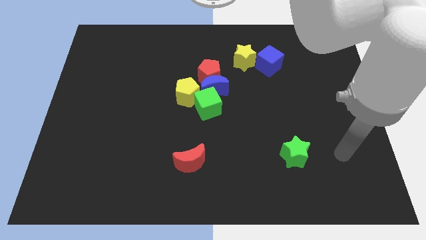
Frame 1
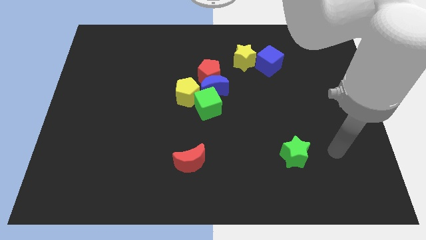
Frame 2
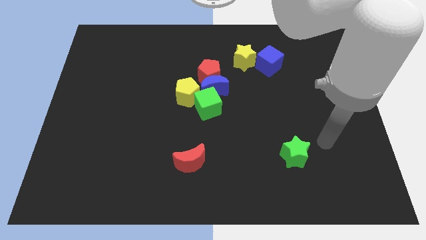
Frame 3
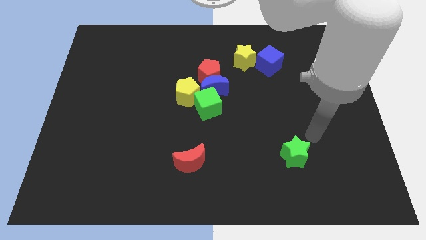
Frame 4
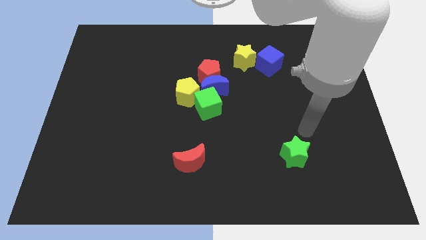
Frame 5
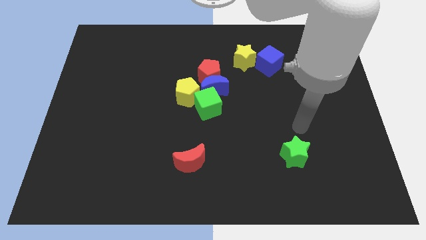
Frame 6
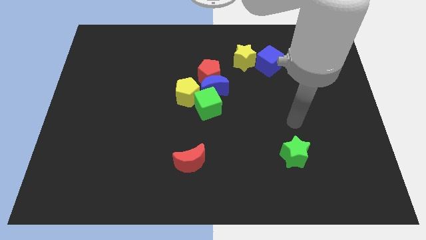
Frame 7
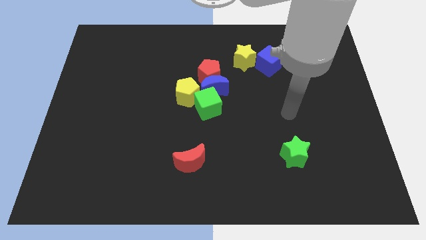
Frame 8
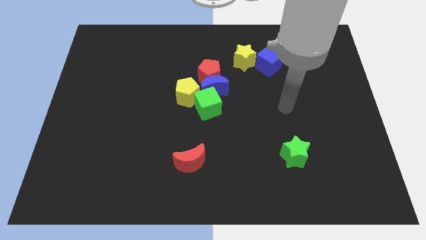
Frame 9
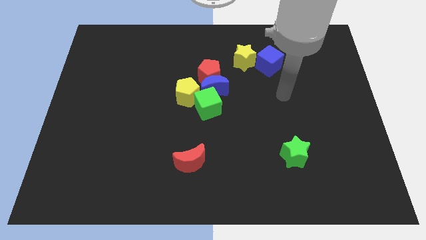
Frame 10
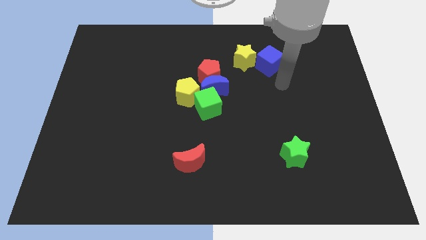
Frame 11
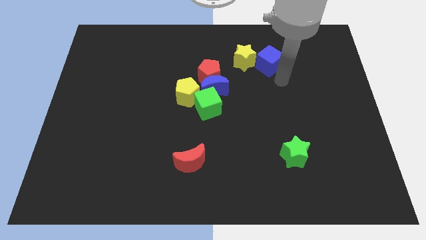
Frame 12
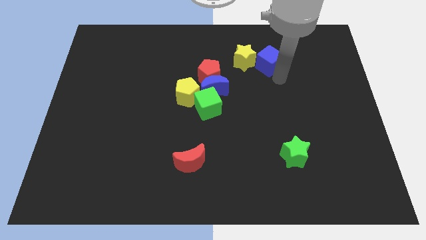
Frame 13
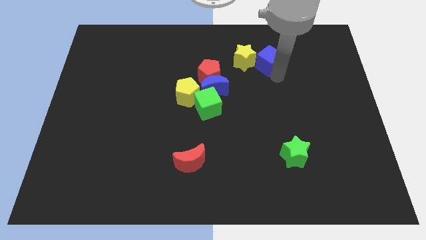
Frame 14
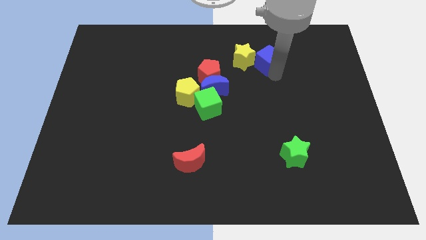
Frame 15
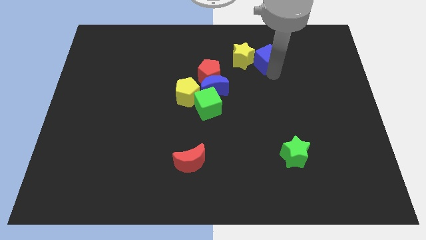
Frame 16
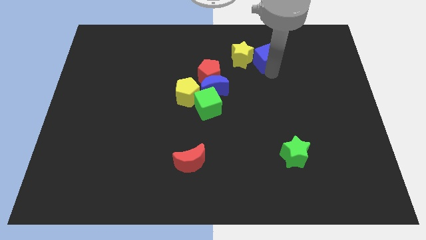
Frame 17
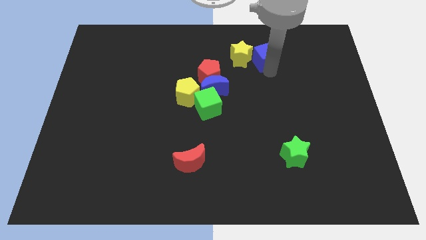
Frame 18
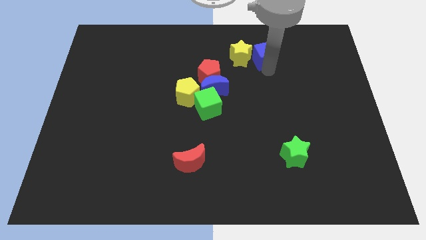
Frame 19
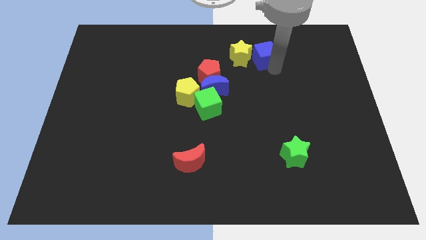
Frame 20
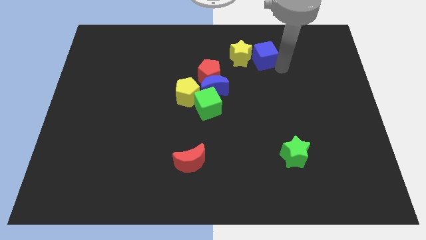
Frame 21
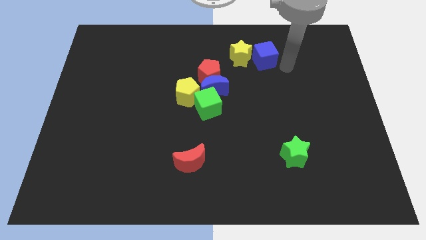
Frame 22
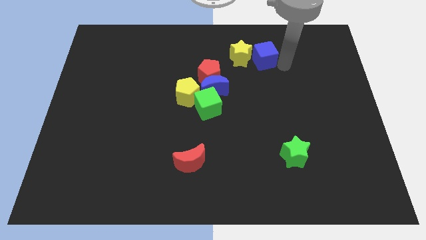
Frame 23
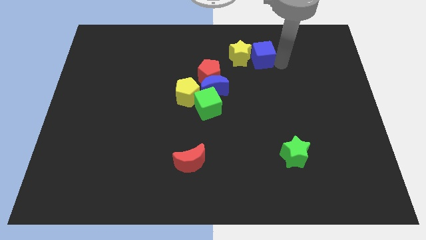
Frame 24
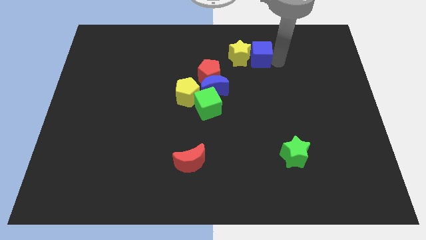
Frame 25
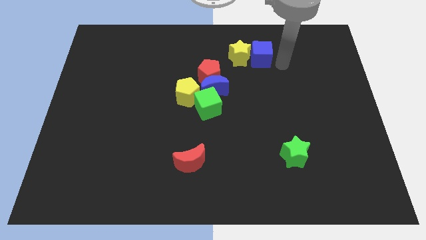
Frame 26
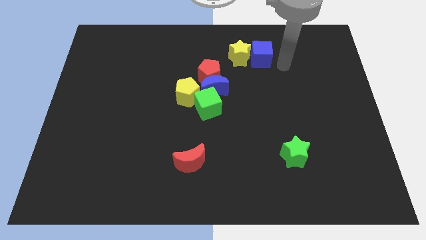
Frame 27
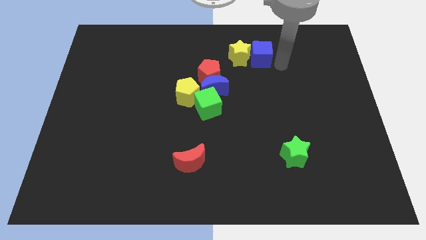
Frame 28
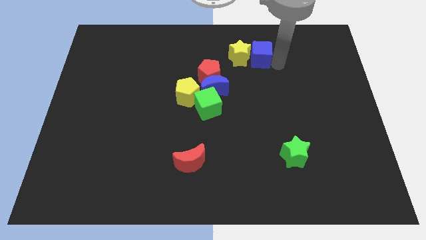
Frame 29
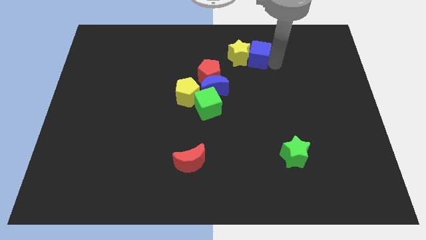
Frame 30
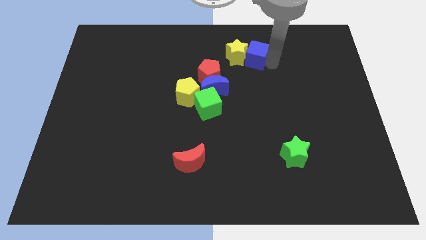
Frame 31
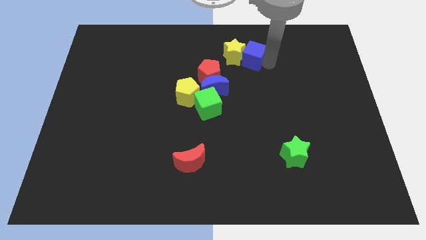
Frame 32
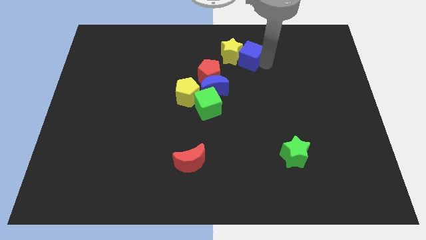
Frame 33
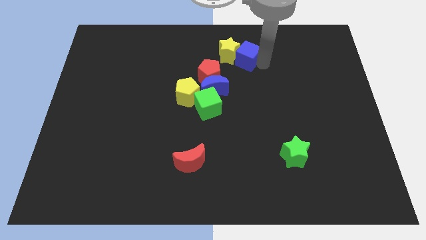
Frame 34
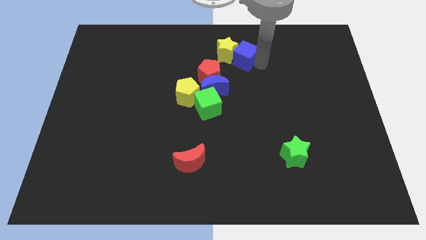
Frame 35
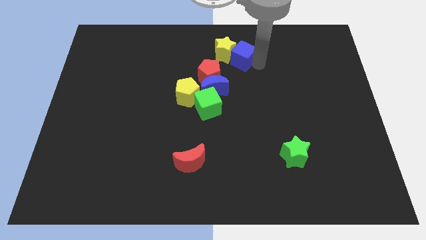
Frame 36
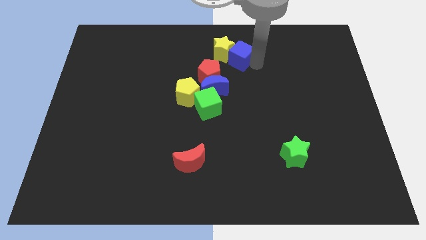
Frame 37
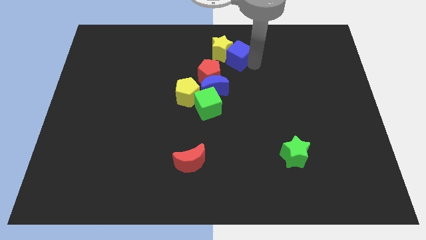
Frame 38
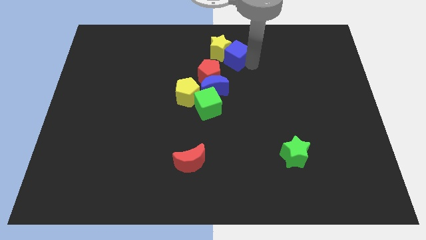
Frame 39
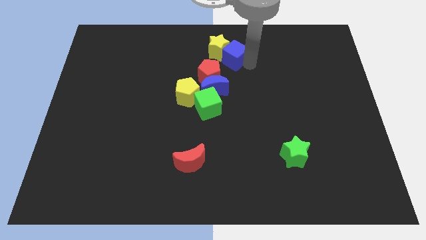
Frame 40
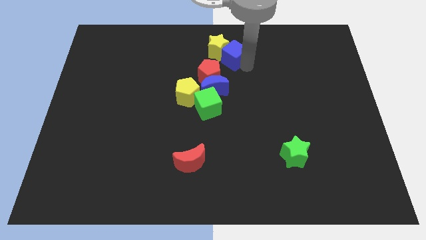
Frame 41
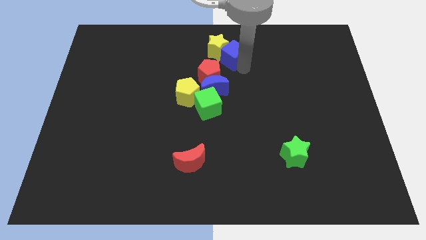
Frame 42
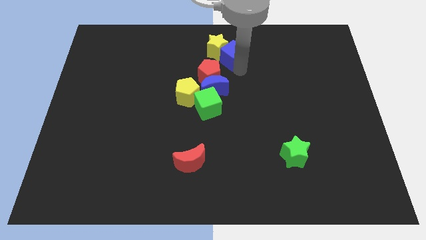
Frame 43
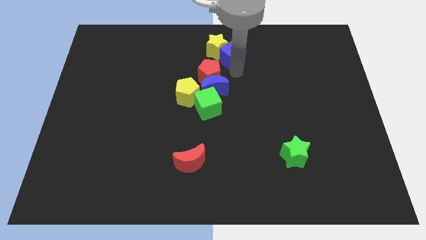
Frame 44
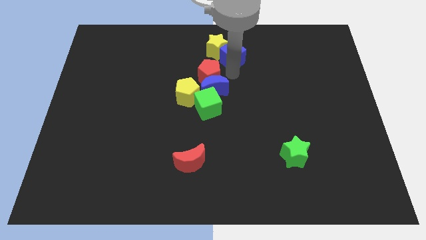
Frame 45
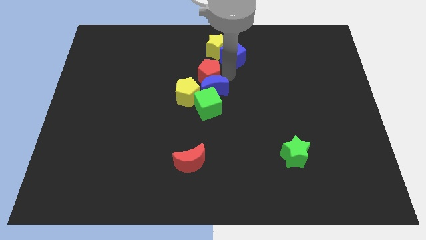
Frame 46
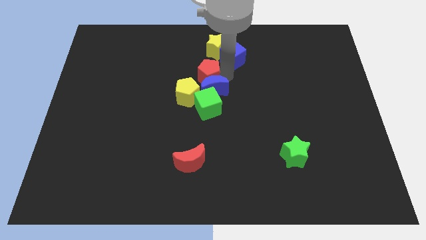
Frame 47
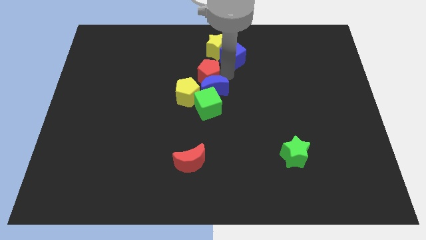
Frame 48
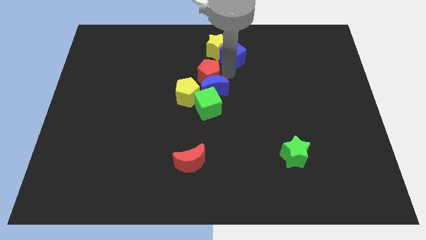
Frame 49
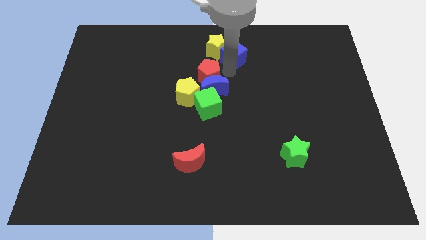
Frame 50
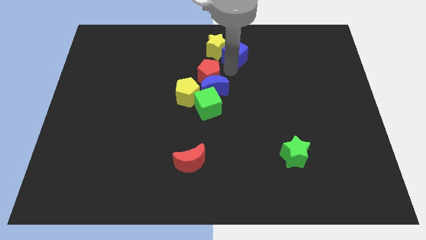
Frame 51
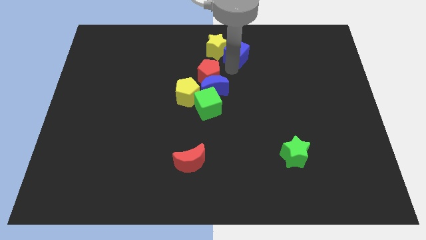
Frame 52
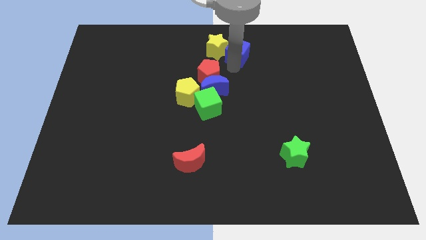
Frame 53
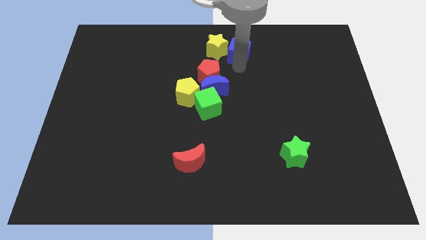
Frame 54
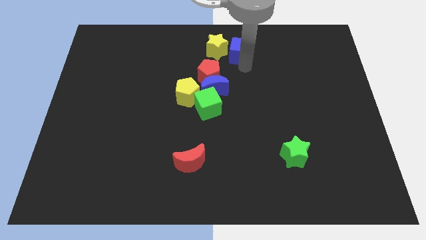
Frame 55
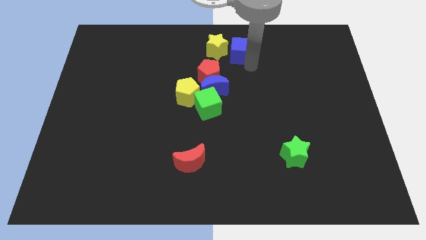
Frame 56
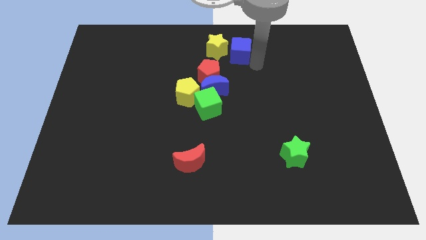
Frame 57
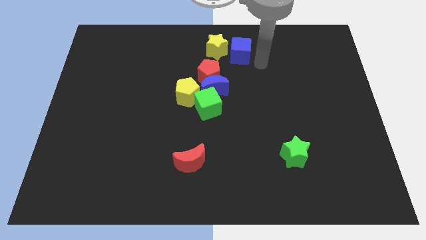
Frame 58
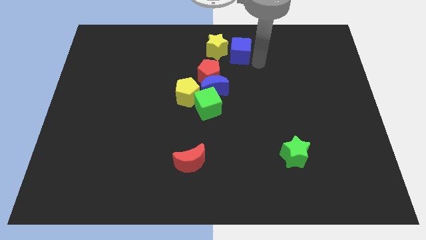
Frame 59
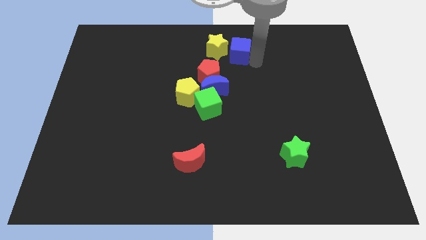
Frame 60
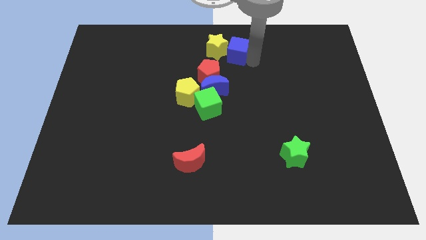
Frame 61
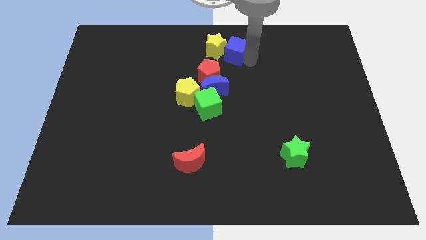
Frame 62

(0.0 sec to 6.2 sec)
push the blue cube to the top

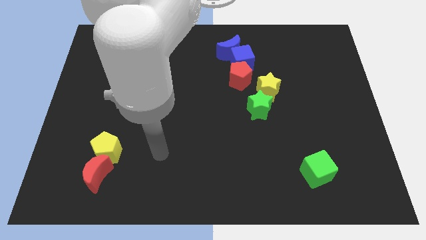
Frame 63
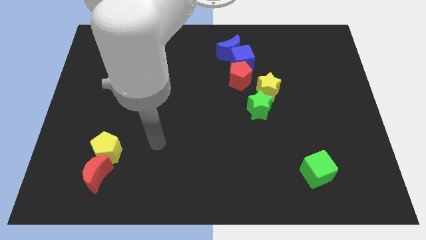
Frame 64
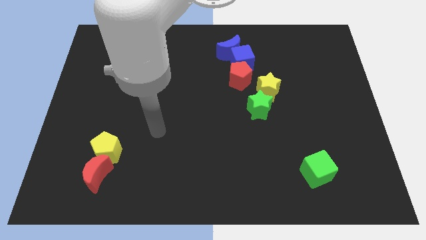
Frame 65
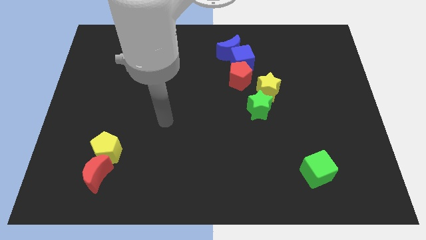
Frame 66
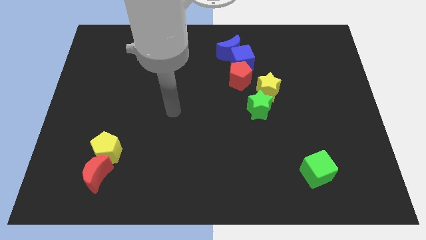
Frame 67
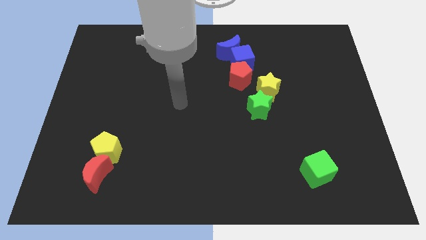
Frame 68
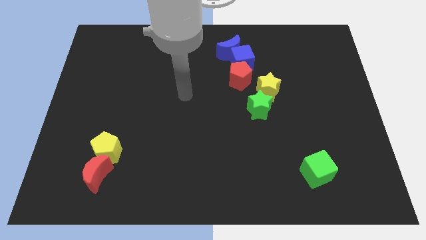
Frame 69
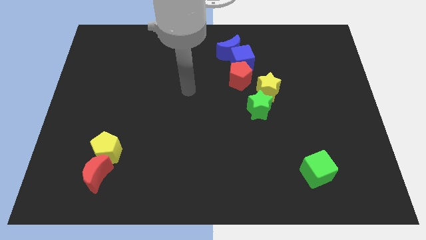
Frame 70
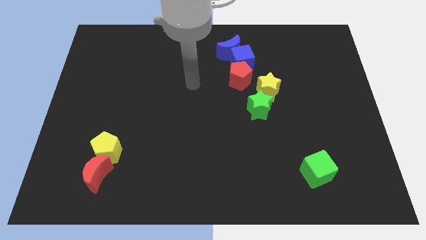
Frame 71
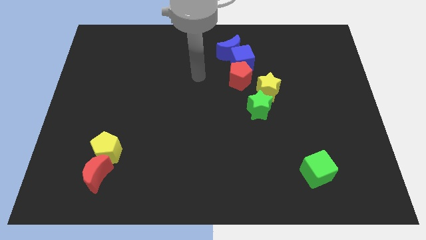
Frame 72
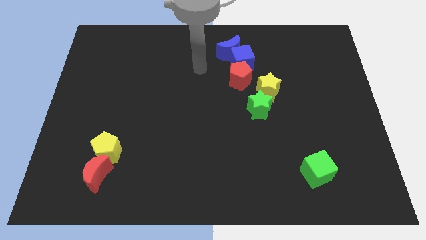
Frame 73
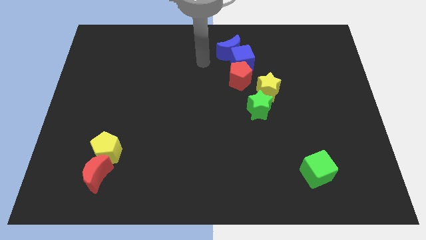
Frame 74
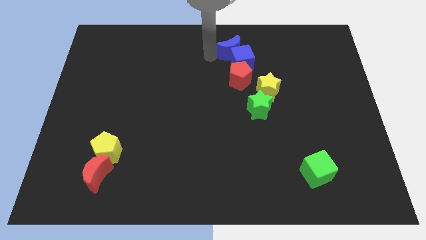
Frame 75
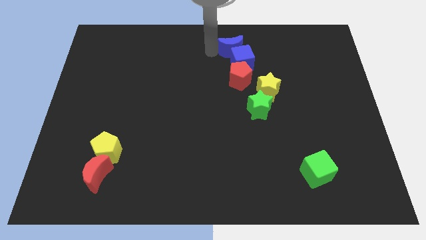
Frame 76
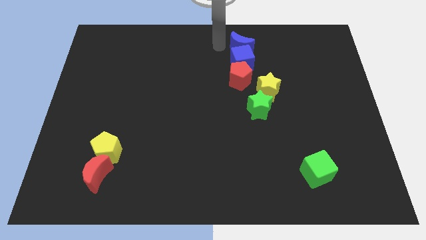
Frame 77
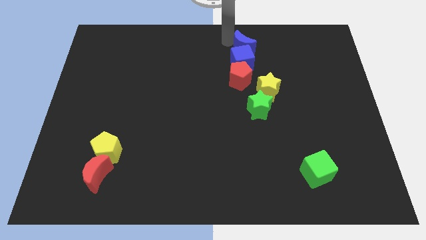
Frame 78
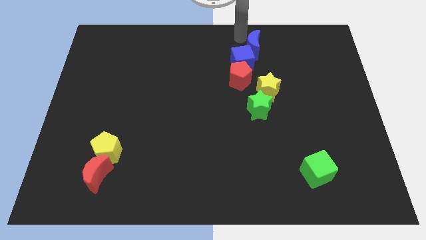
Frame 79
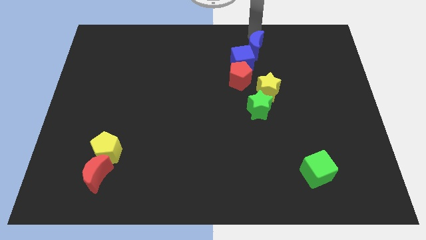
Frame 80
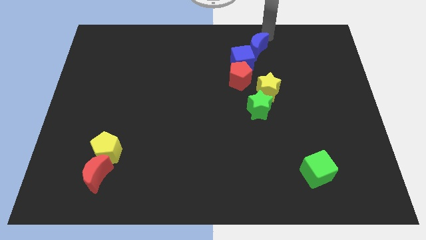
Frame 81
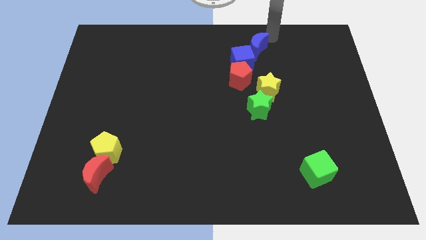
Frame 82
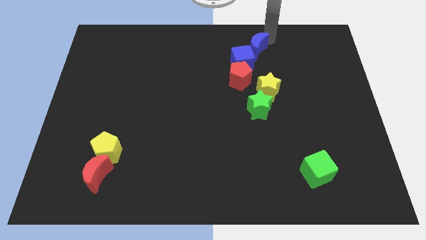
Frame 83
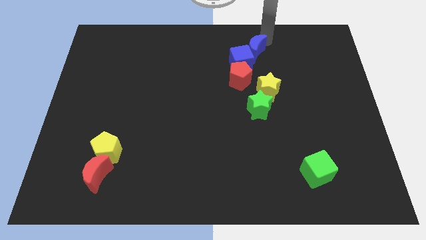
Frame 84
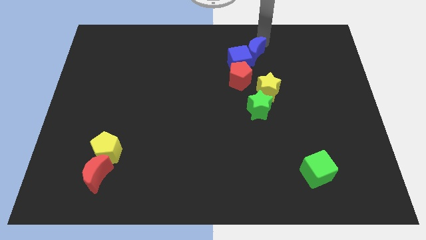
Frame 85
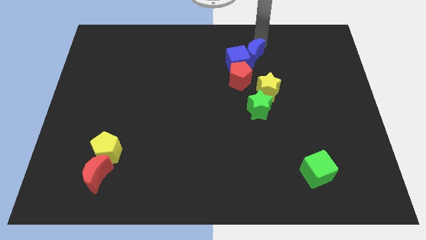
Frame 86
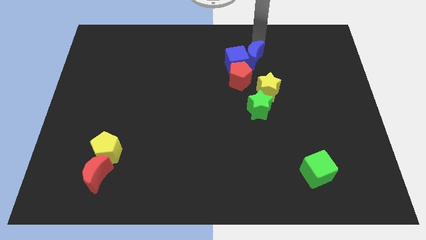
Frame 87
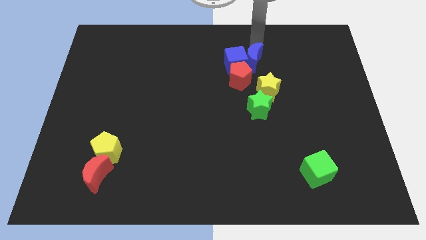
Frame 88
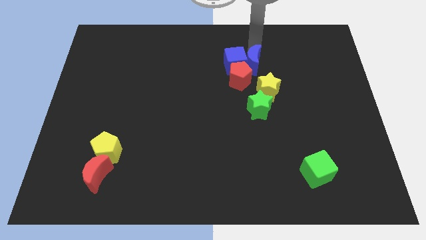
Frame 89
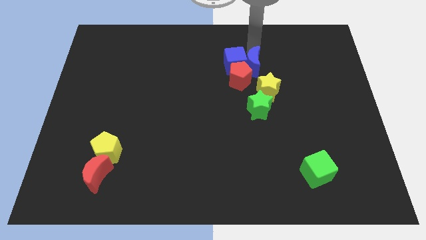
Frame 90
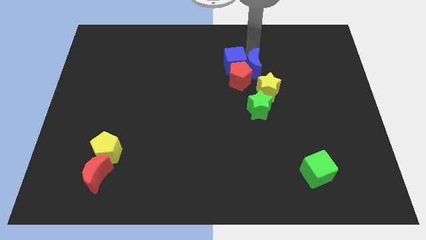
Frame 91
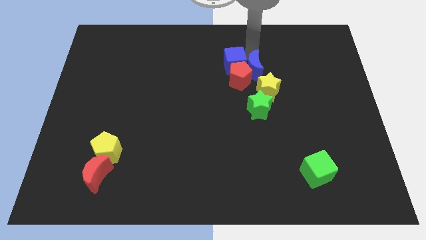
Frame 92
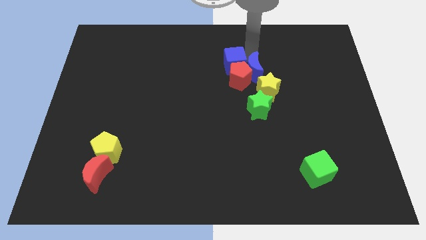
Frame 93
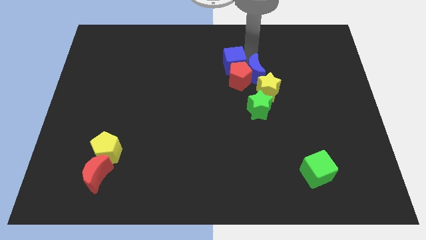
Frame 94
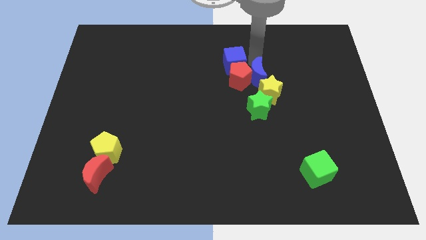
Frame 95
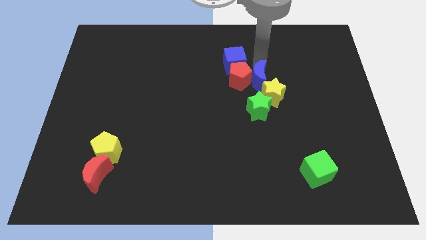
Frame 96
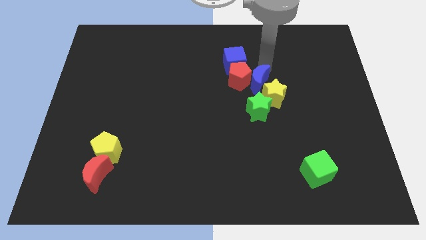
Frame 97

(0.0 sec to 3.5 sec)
move the blue moon to the middle of the board
